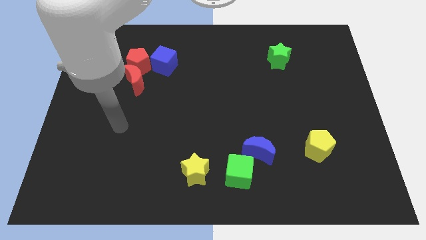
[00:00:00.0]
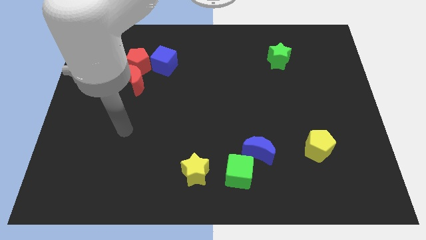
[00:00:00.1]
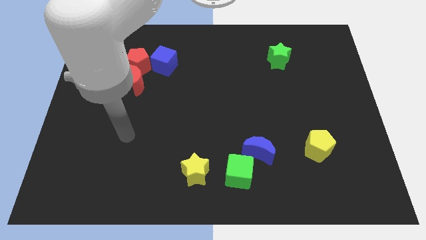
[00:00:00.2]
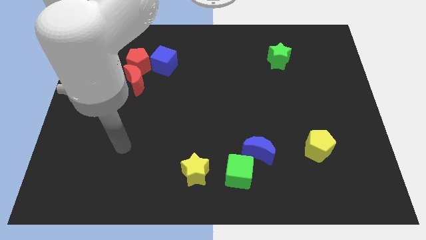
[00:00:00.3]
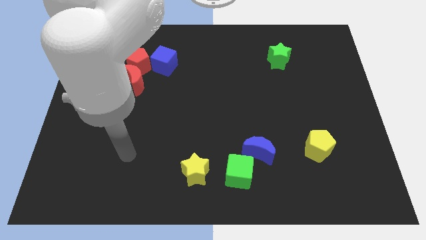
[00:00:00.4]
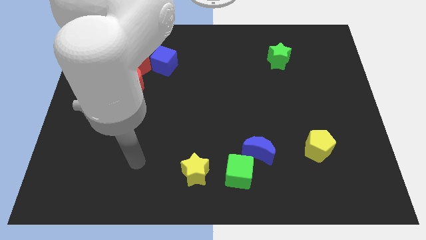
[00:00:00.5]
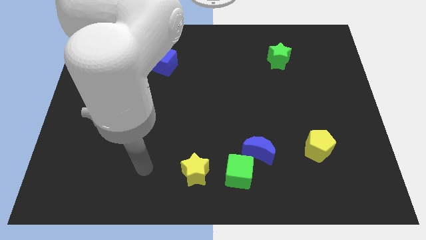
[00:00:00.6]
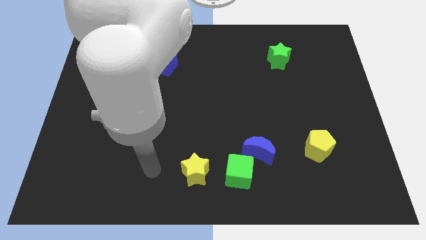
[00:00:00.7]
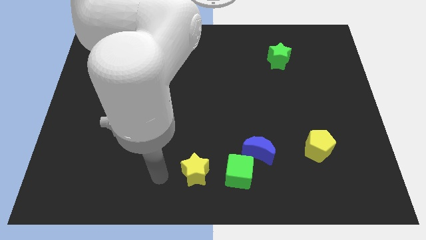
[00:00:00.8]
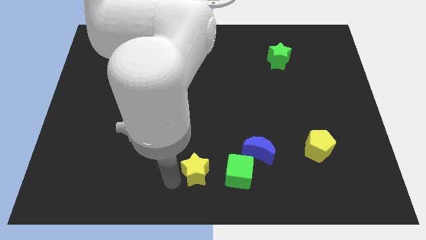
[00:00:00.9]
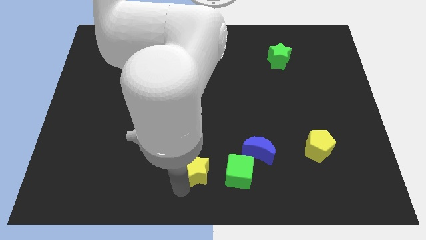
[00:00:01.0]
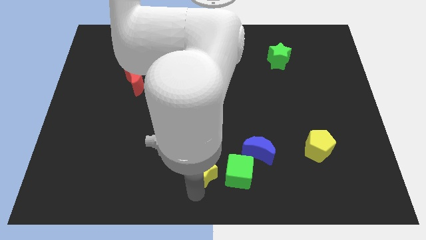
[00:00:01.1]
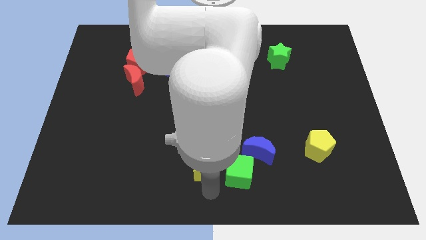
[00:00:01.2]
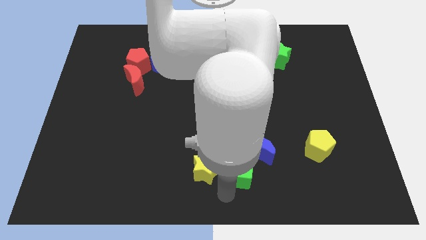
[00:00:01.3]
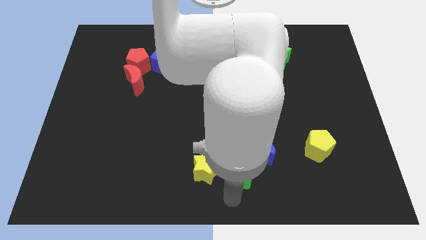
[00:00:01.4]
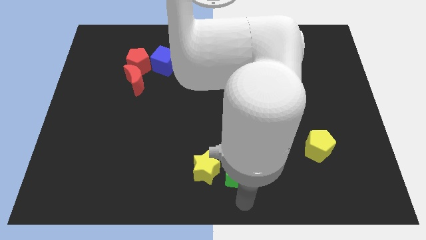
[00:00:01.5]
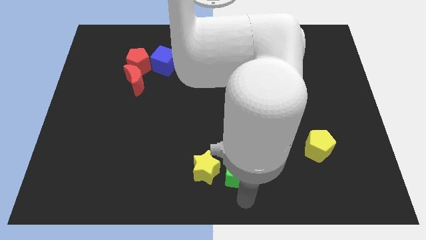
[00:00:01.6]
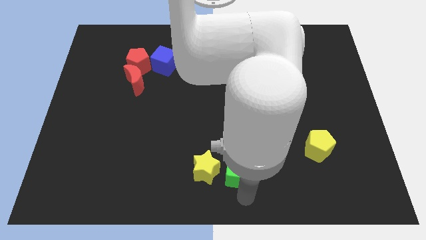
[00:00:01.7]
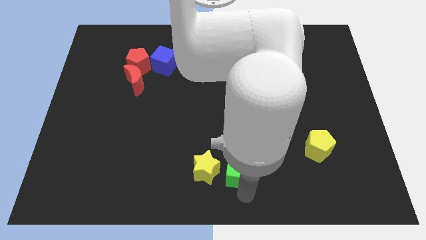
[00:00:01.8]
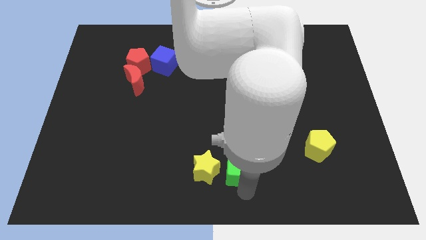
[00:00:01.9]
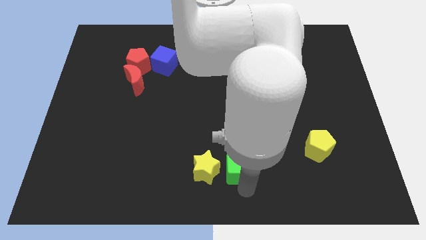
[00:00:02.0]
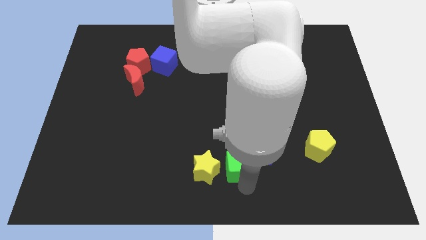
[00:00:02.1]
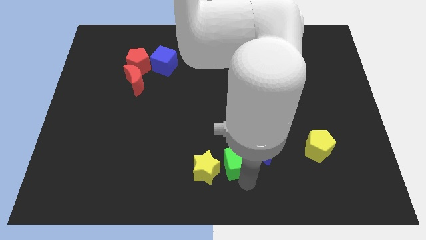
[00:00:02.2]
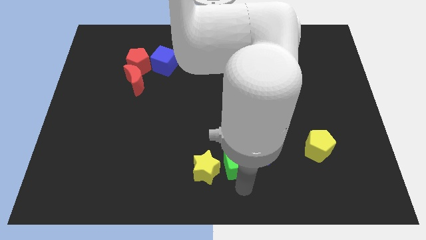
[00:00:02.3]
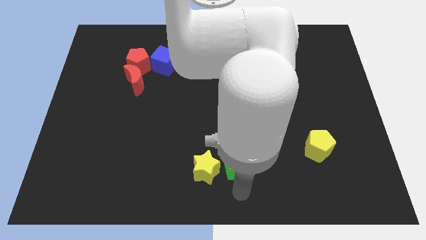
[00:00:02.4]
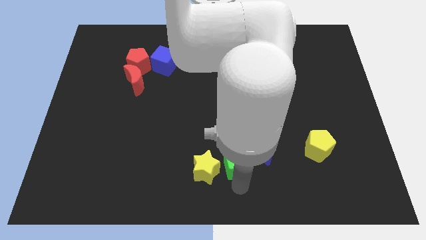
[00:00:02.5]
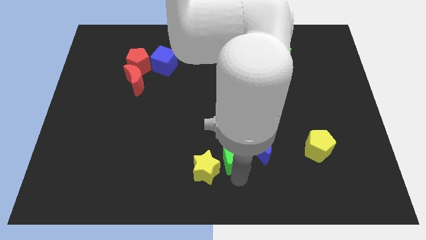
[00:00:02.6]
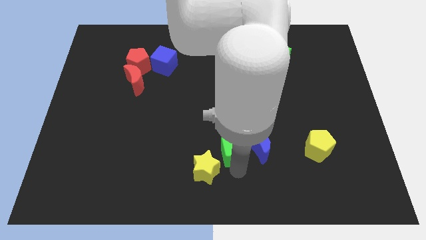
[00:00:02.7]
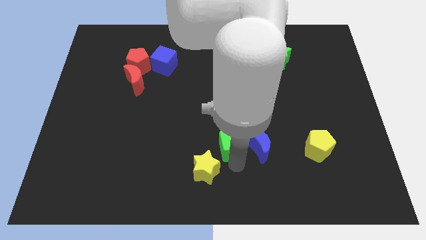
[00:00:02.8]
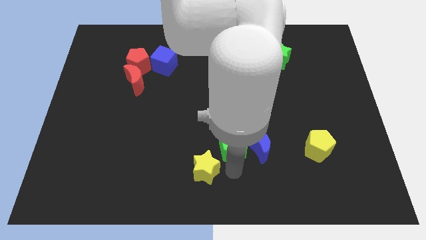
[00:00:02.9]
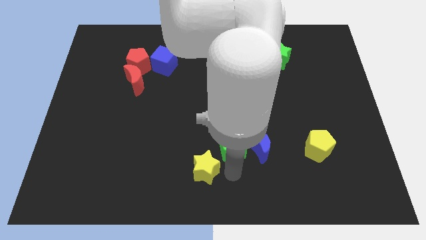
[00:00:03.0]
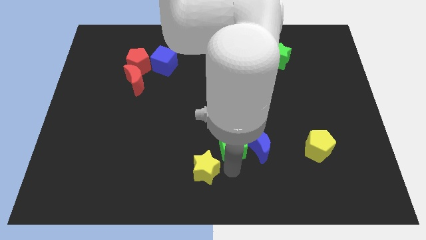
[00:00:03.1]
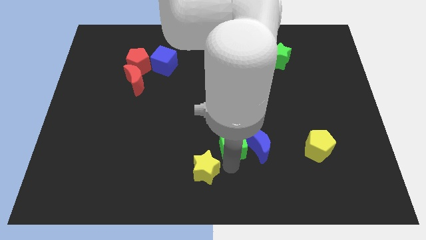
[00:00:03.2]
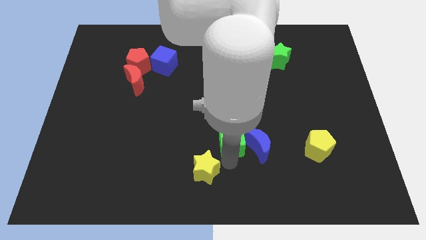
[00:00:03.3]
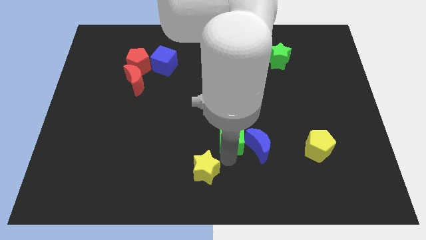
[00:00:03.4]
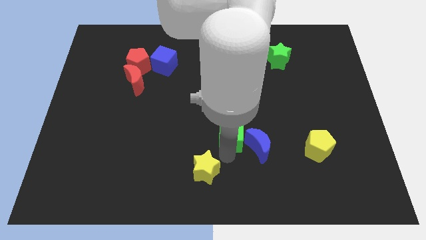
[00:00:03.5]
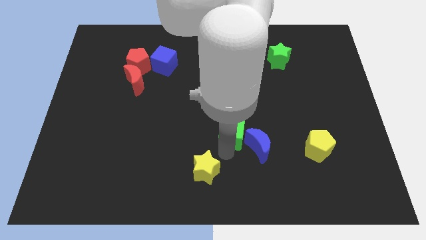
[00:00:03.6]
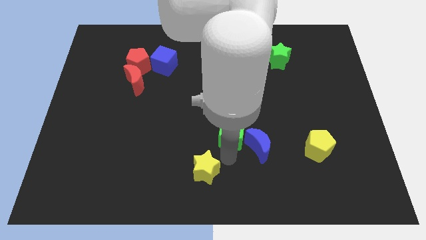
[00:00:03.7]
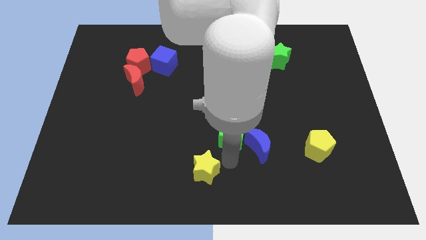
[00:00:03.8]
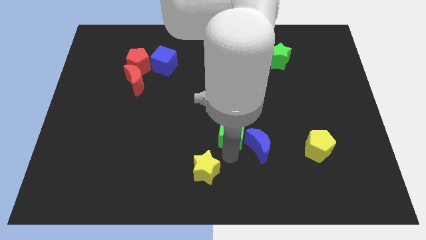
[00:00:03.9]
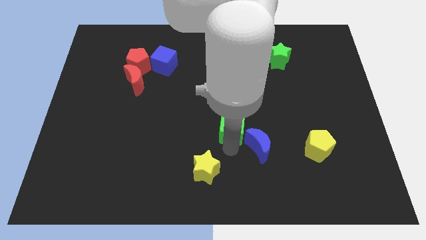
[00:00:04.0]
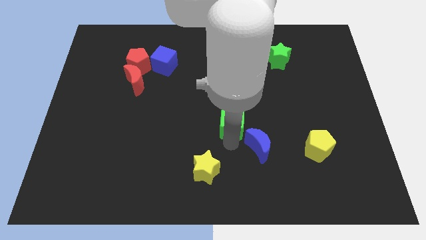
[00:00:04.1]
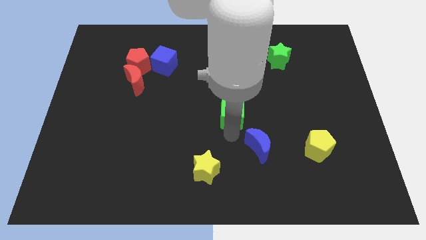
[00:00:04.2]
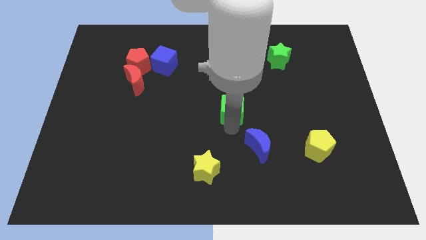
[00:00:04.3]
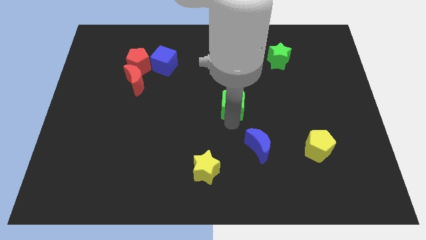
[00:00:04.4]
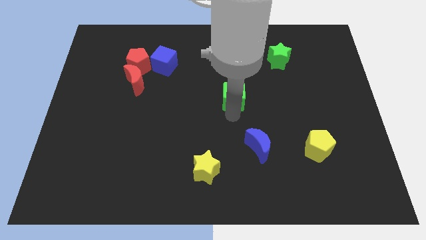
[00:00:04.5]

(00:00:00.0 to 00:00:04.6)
slide the green cube upwards

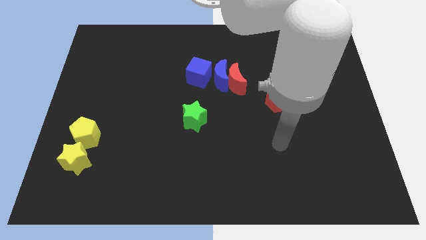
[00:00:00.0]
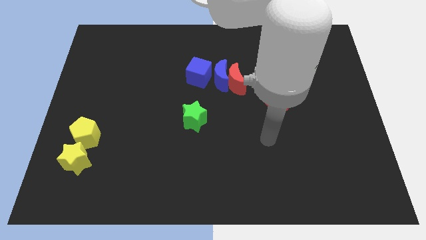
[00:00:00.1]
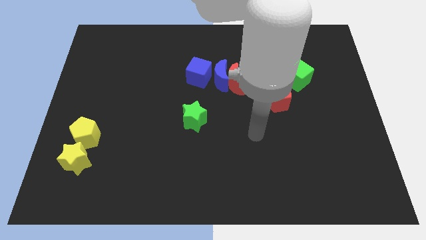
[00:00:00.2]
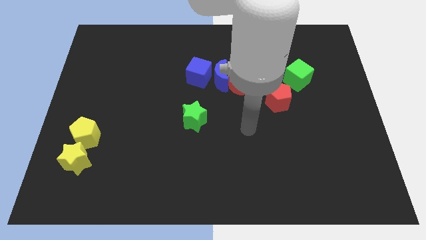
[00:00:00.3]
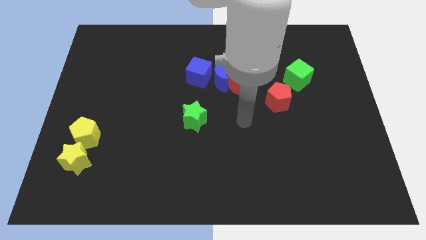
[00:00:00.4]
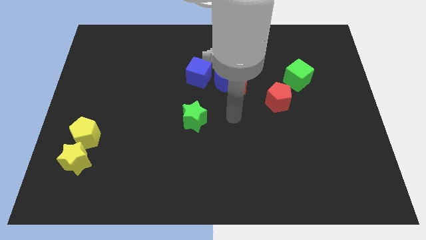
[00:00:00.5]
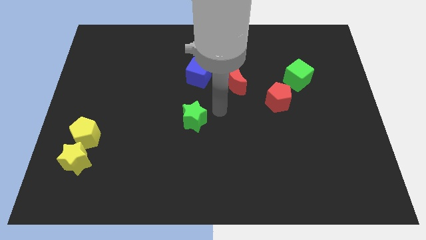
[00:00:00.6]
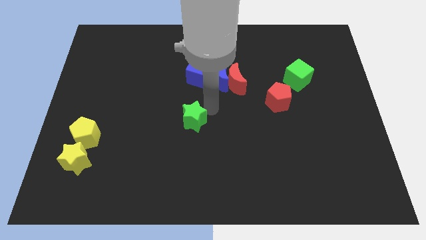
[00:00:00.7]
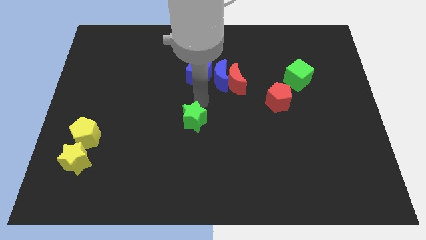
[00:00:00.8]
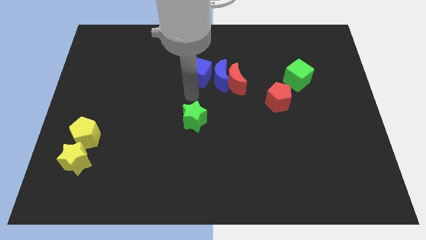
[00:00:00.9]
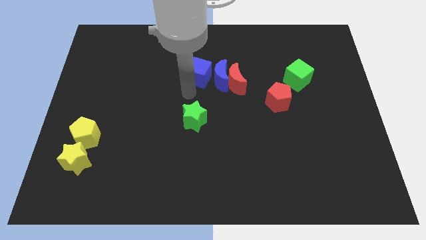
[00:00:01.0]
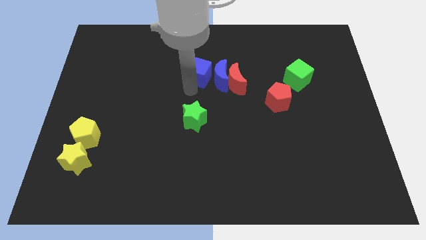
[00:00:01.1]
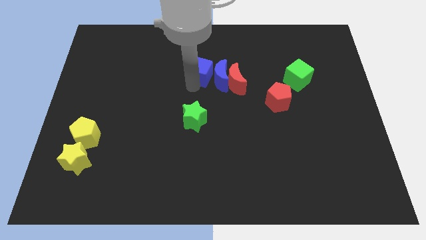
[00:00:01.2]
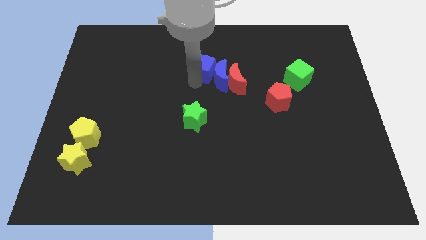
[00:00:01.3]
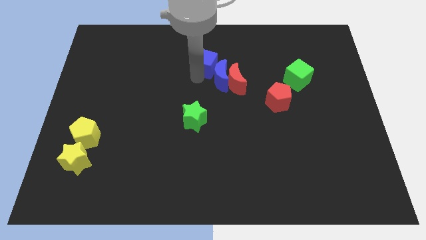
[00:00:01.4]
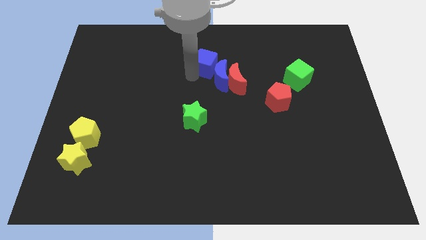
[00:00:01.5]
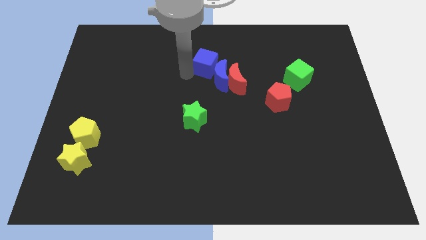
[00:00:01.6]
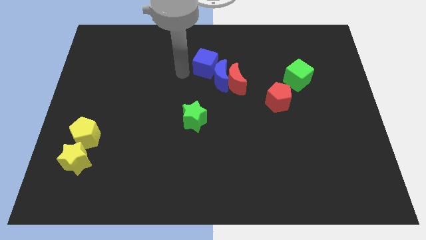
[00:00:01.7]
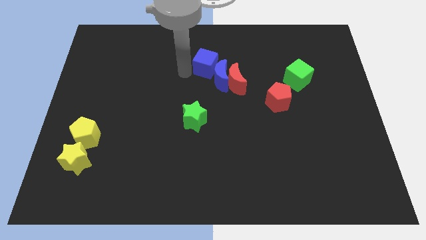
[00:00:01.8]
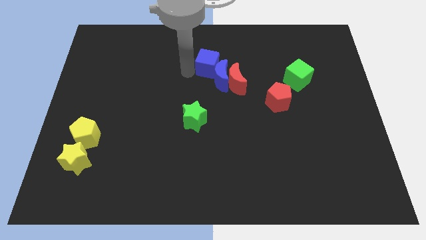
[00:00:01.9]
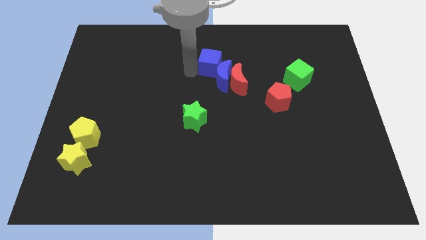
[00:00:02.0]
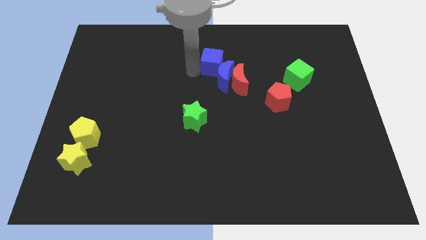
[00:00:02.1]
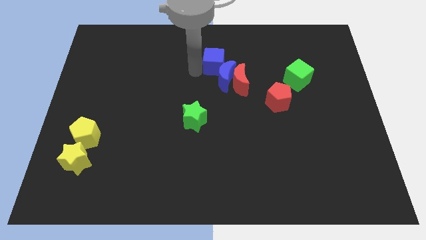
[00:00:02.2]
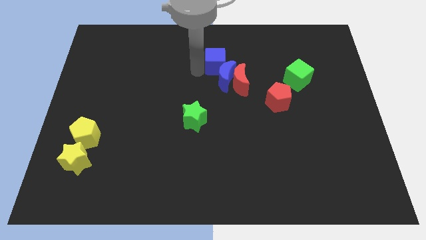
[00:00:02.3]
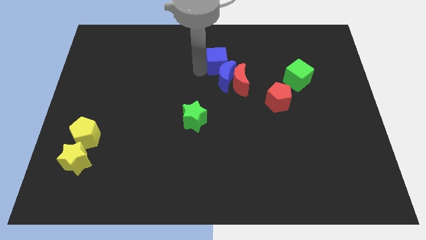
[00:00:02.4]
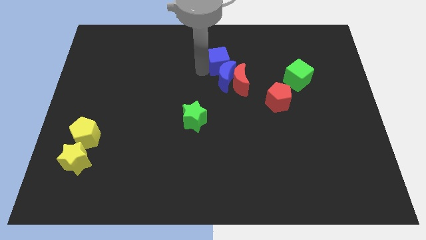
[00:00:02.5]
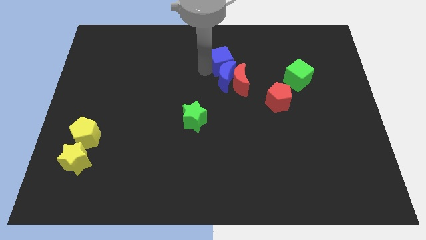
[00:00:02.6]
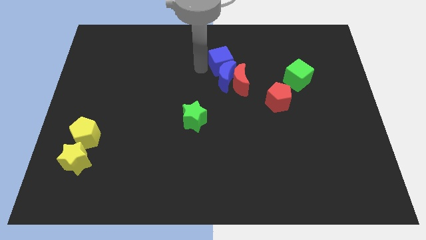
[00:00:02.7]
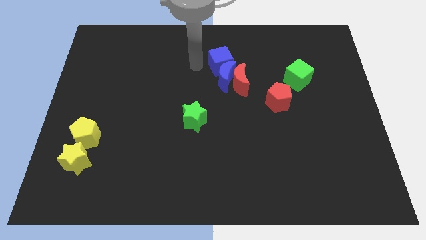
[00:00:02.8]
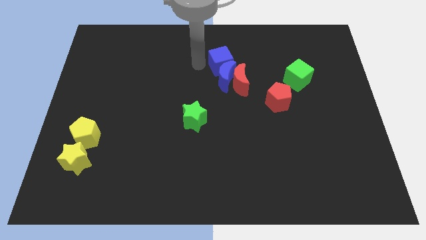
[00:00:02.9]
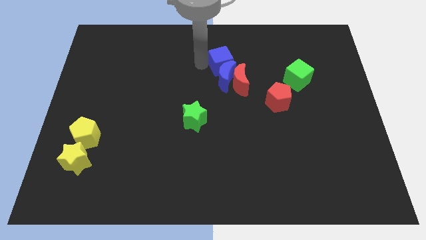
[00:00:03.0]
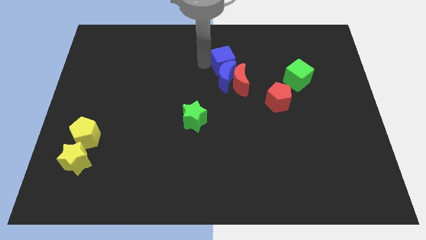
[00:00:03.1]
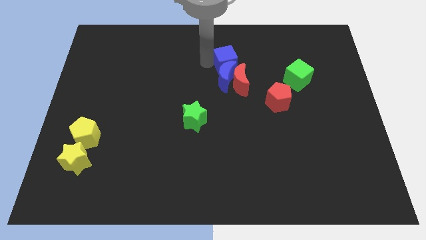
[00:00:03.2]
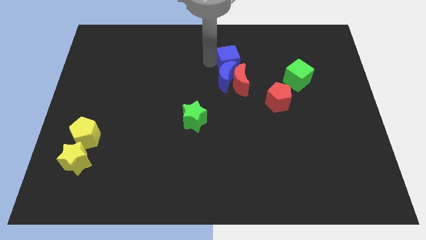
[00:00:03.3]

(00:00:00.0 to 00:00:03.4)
slightly push the blue cube right
